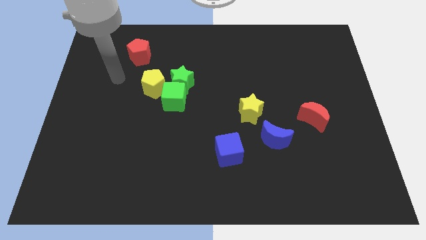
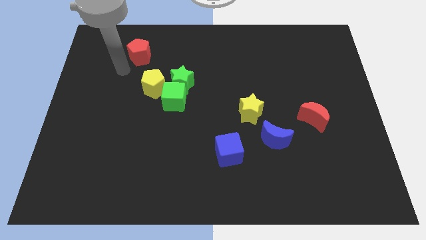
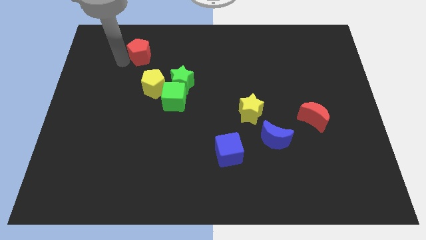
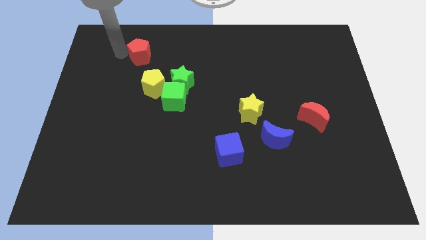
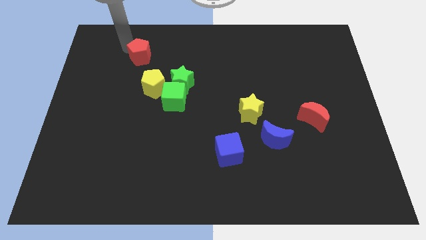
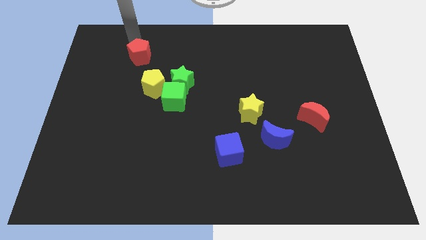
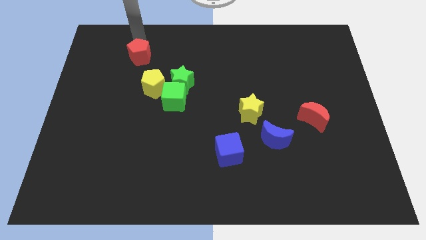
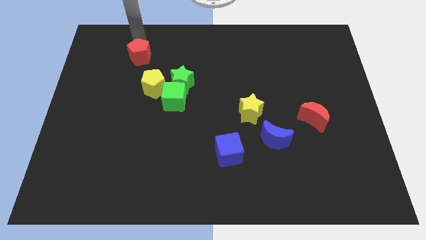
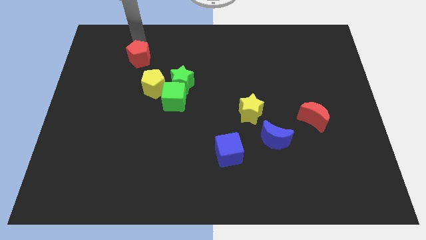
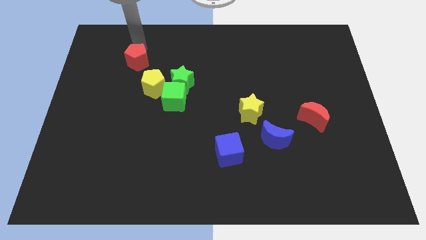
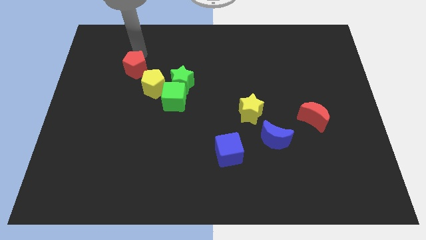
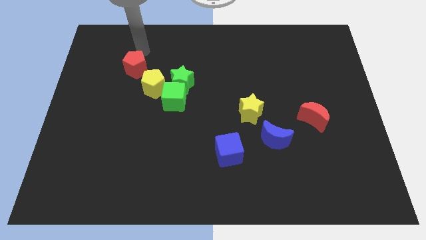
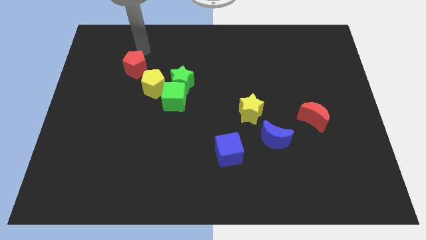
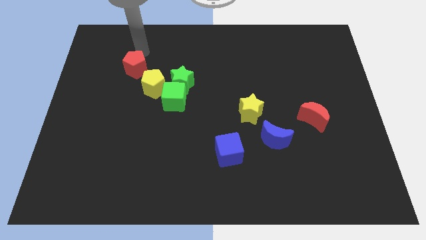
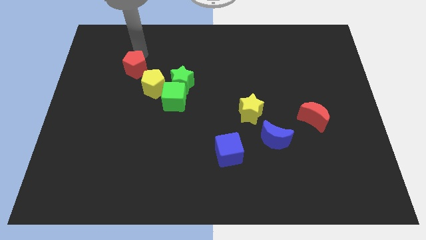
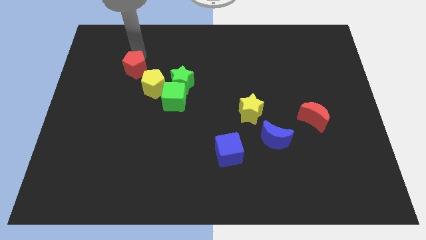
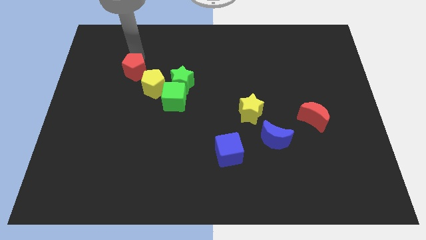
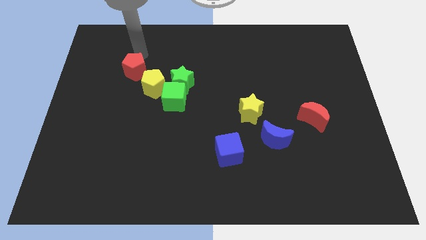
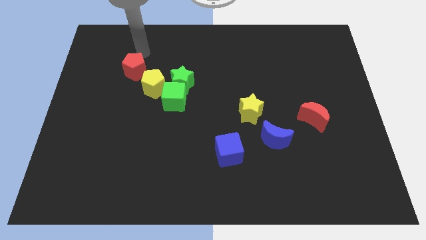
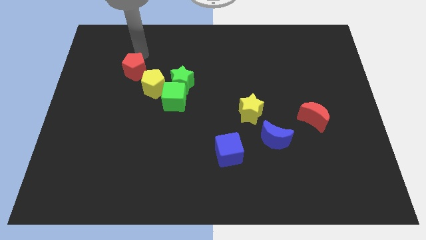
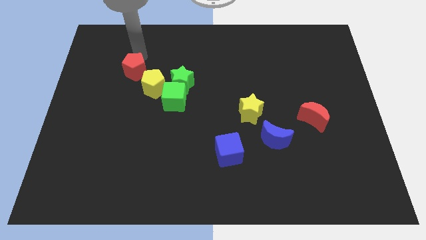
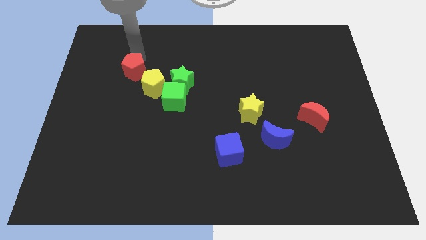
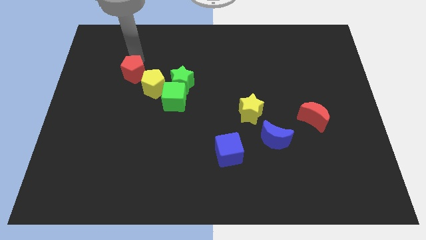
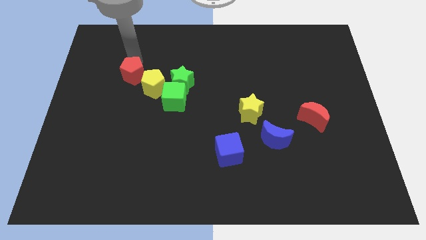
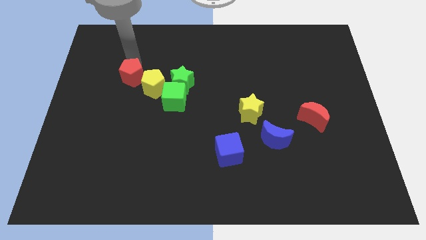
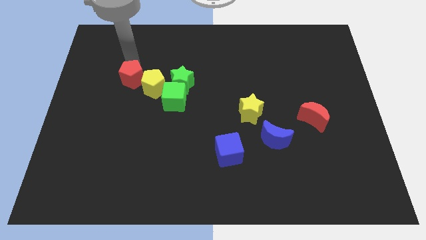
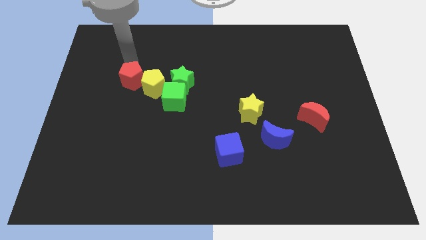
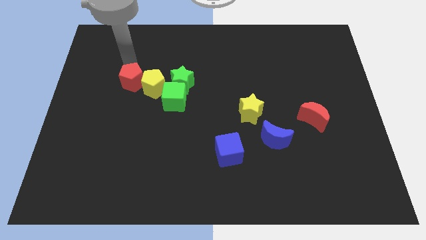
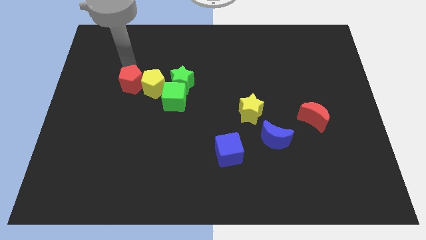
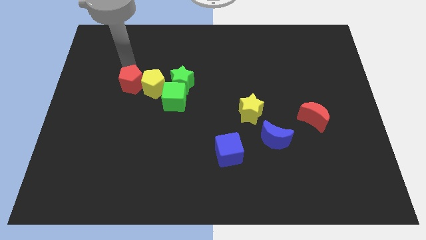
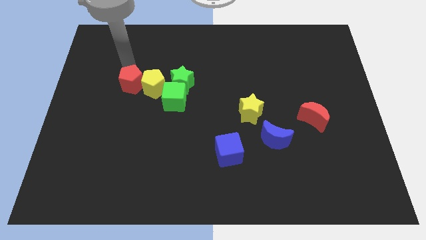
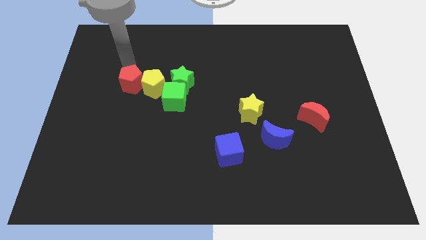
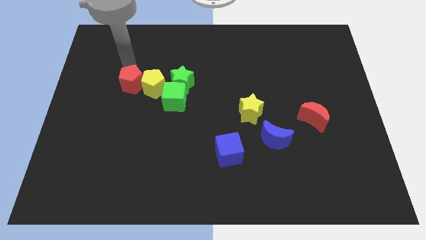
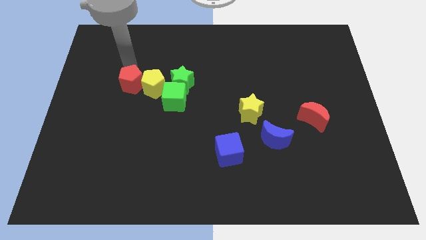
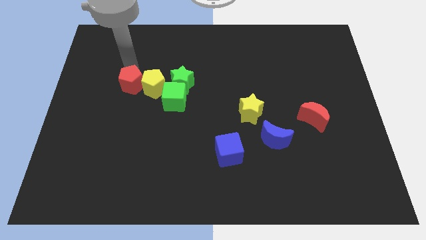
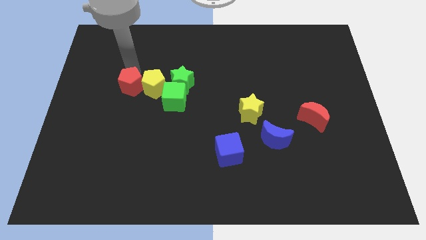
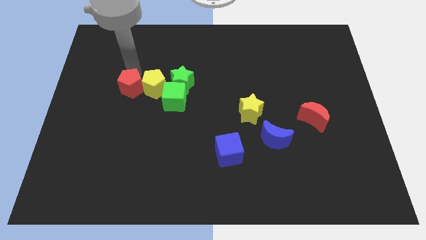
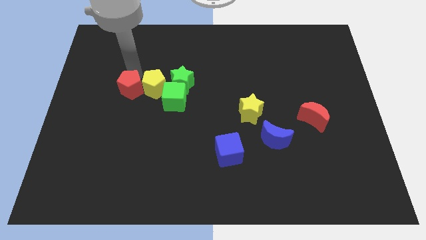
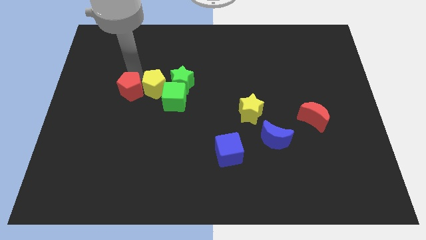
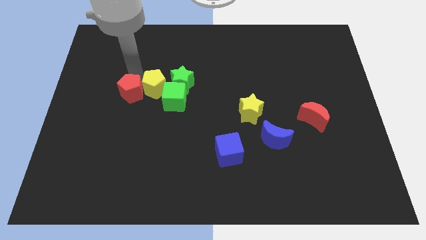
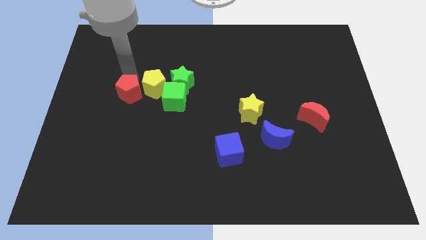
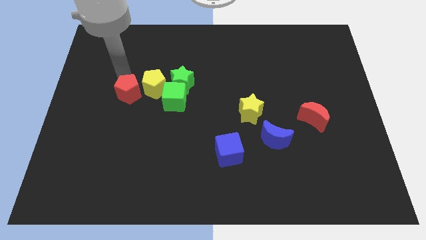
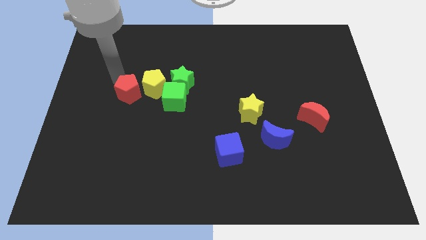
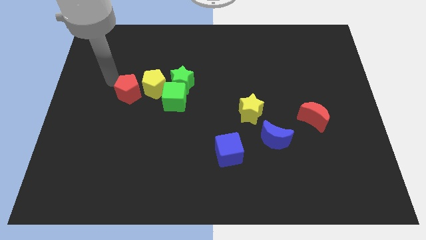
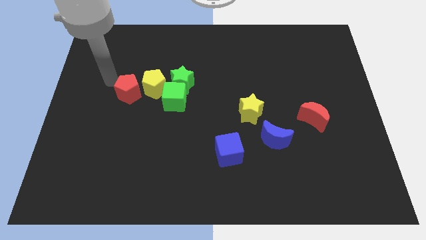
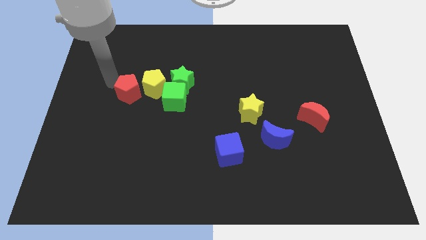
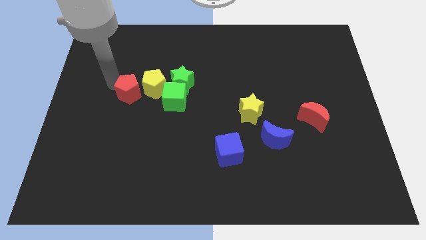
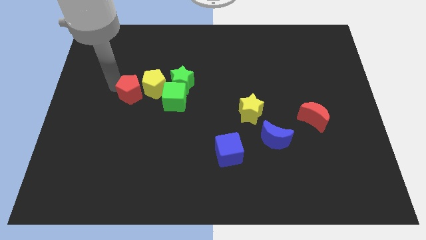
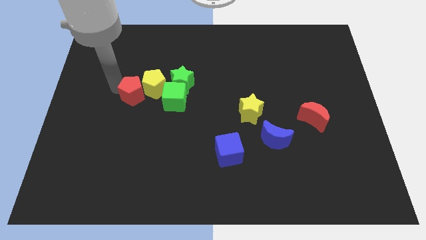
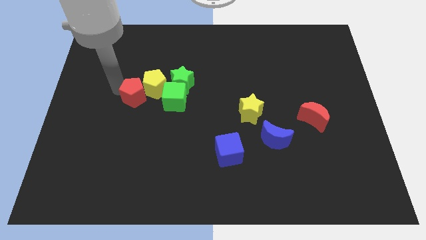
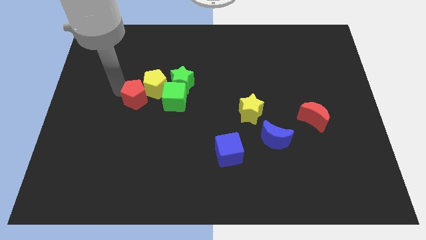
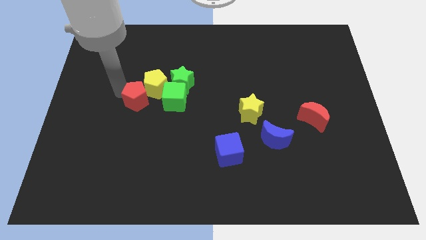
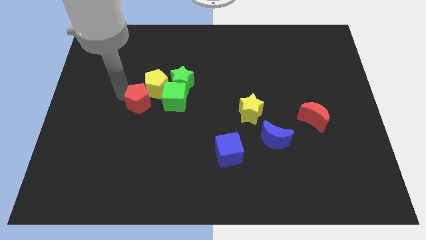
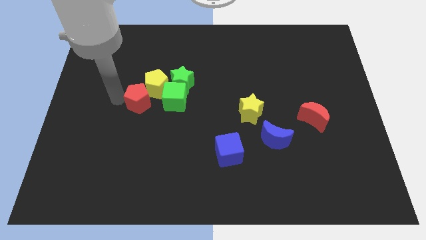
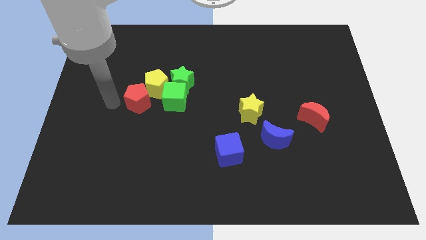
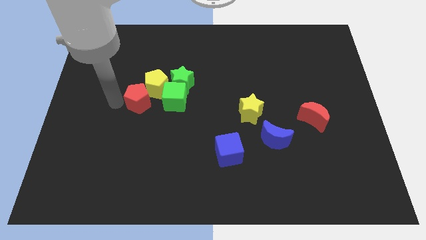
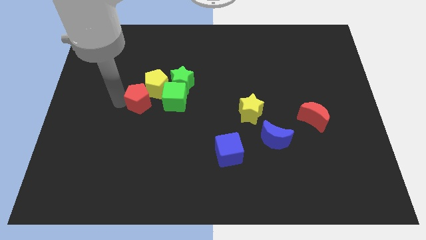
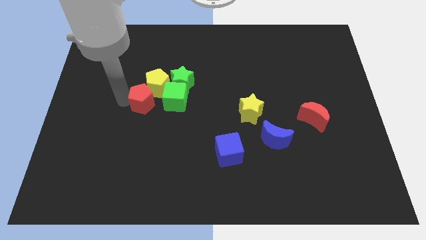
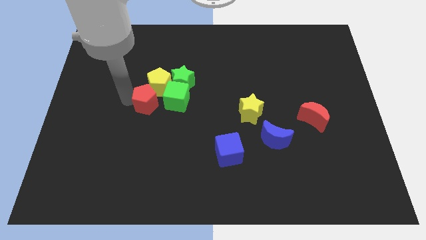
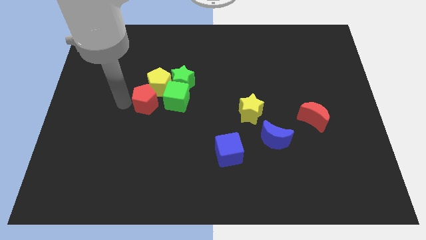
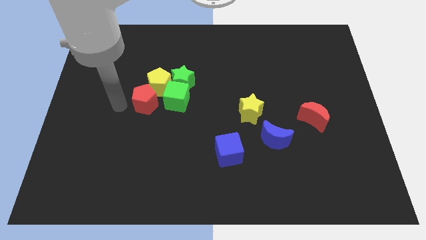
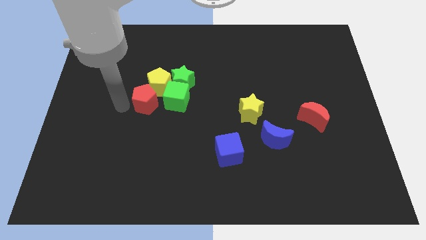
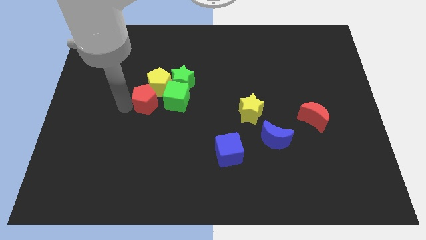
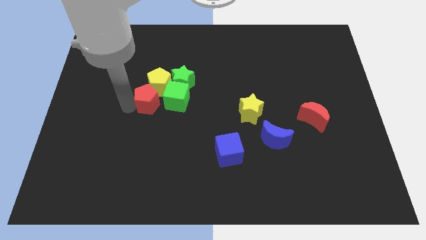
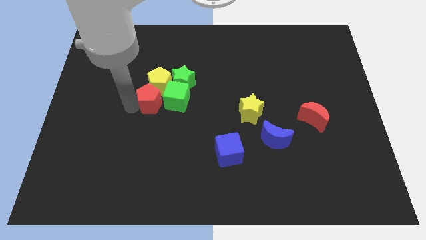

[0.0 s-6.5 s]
put the red pentagon close to the green cube
